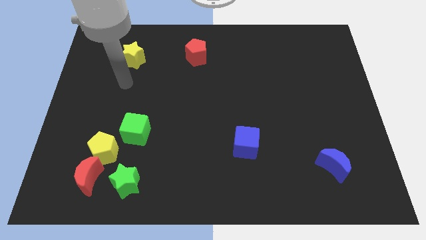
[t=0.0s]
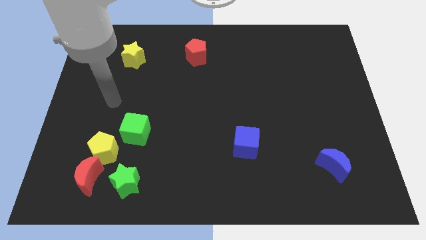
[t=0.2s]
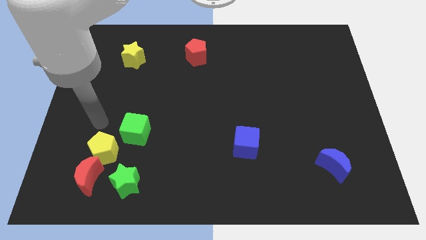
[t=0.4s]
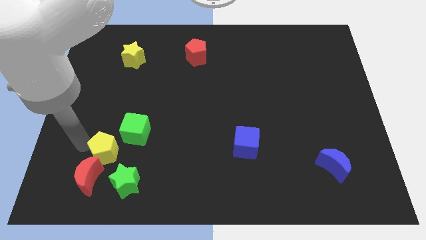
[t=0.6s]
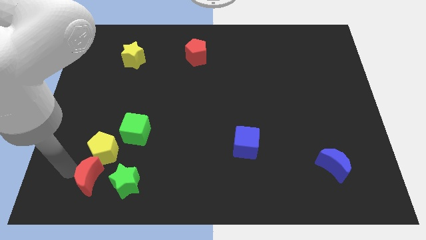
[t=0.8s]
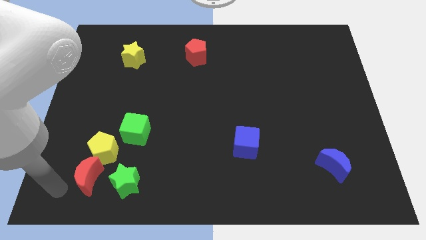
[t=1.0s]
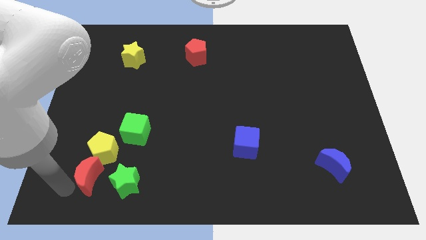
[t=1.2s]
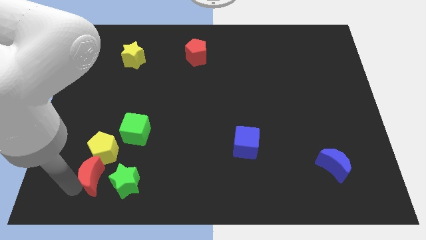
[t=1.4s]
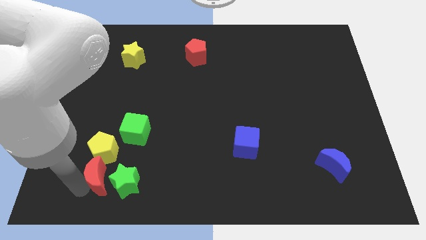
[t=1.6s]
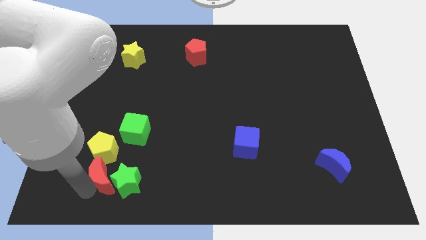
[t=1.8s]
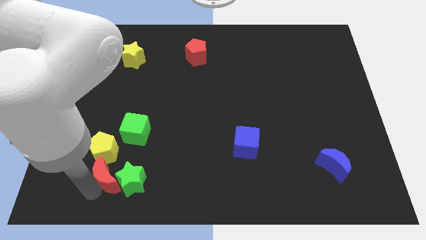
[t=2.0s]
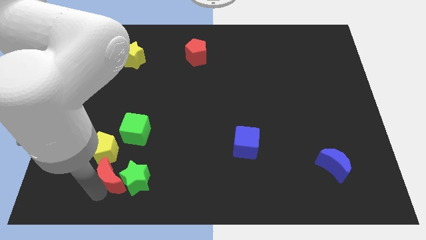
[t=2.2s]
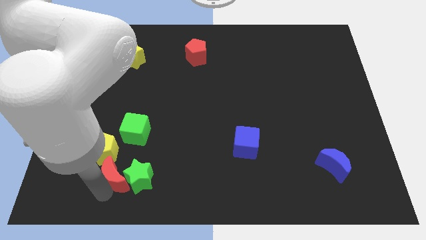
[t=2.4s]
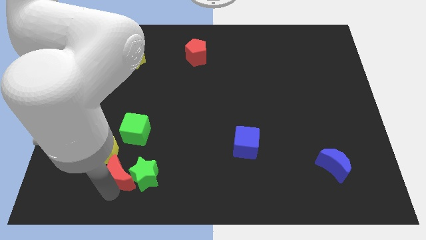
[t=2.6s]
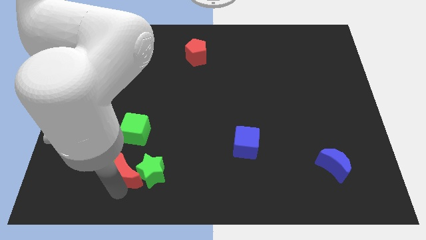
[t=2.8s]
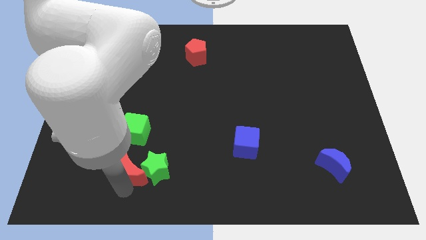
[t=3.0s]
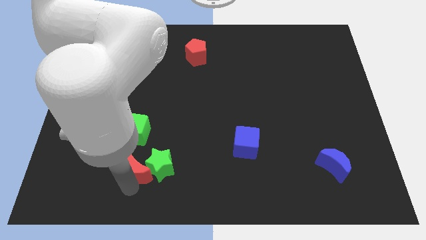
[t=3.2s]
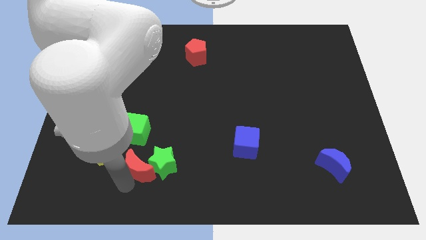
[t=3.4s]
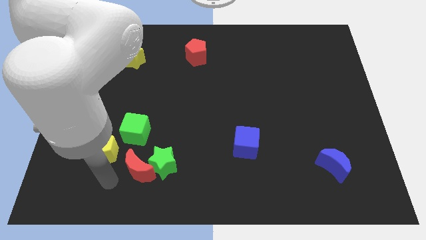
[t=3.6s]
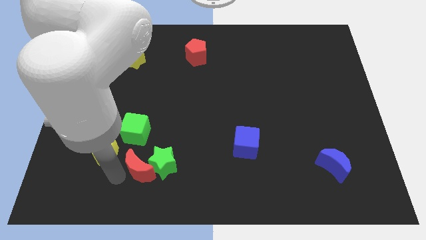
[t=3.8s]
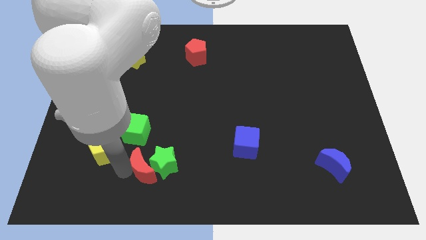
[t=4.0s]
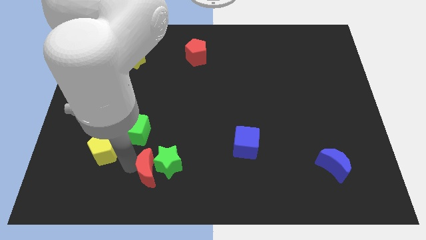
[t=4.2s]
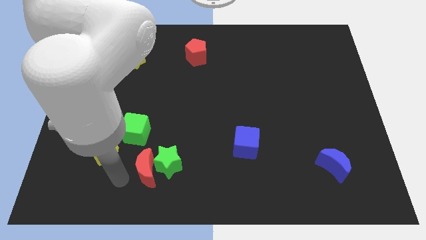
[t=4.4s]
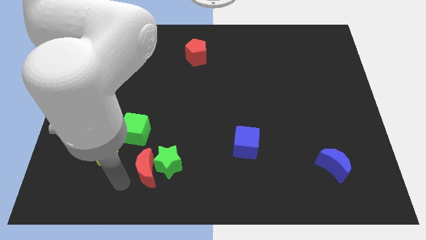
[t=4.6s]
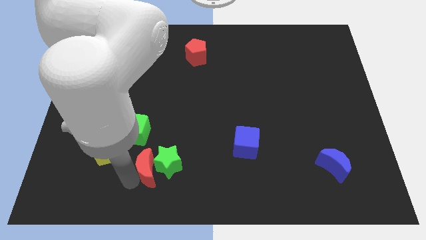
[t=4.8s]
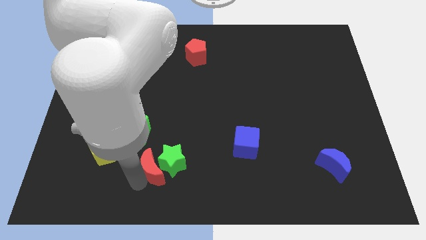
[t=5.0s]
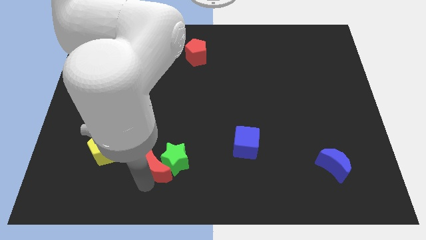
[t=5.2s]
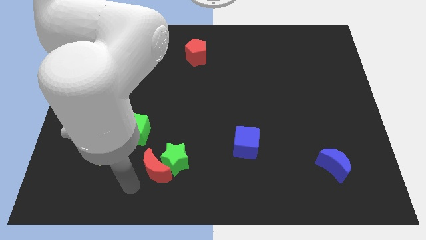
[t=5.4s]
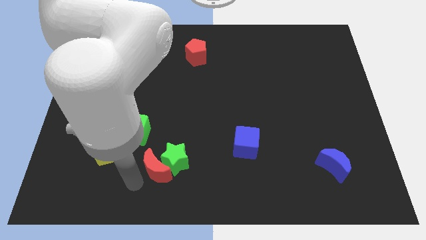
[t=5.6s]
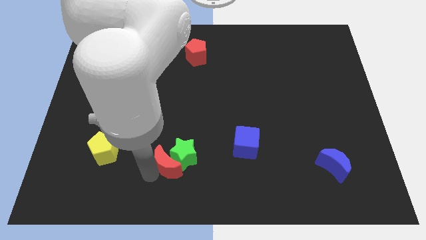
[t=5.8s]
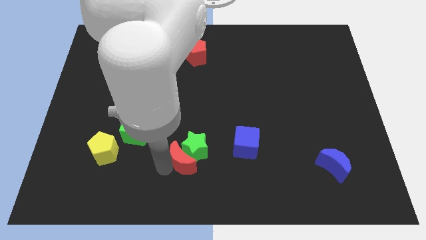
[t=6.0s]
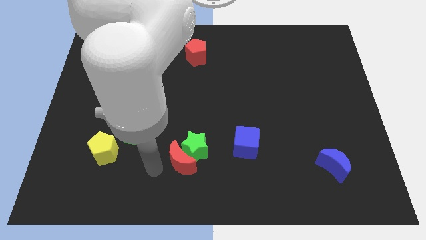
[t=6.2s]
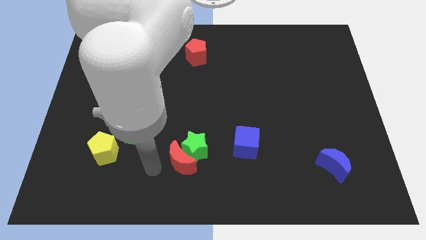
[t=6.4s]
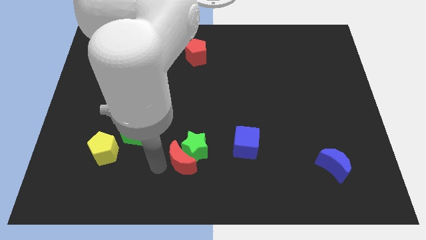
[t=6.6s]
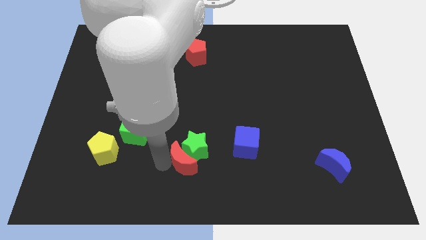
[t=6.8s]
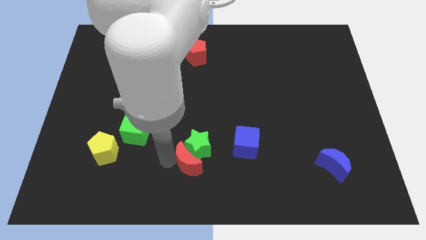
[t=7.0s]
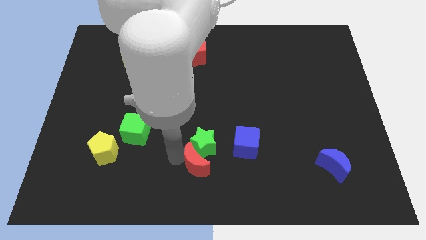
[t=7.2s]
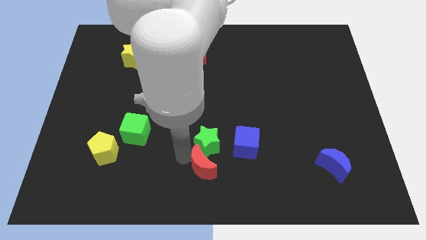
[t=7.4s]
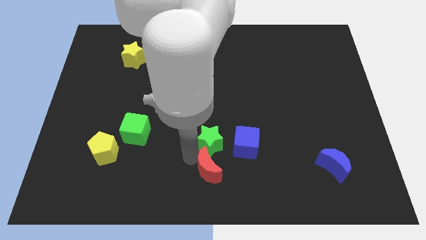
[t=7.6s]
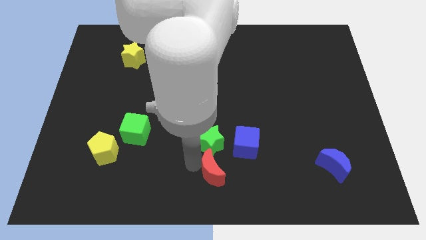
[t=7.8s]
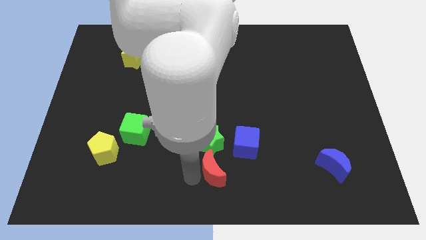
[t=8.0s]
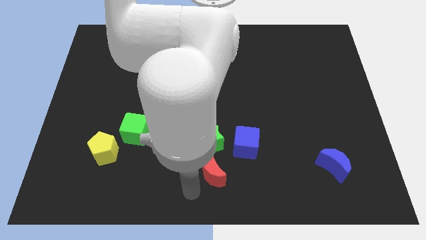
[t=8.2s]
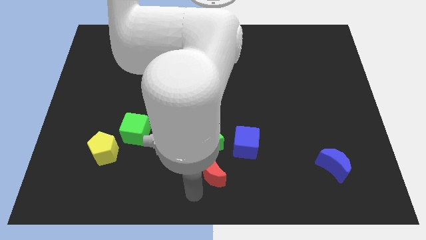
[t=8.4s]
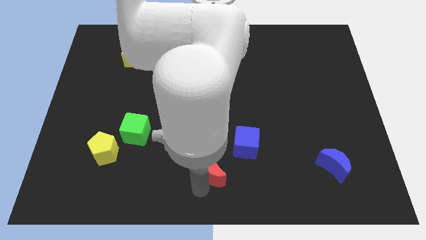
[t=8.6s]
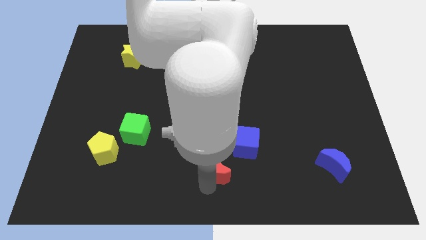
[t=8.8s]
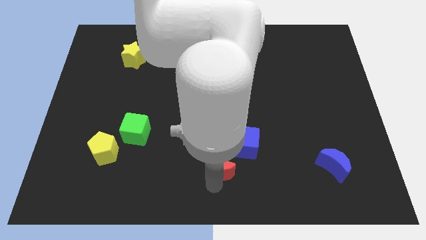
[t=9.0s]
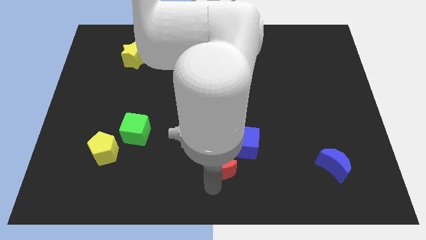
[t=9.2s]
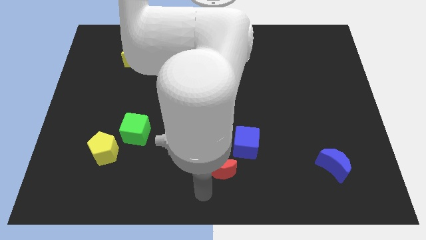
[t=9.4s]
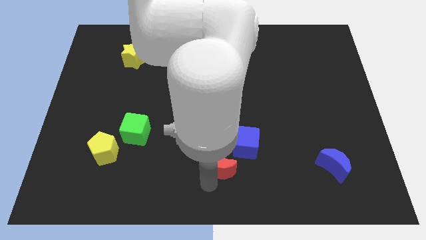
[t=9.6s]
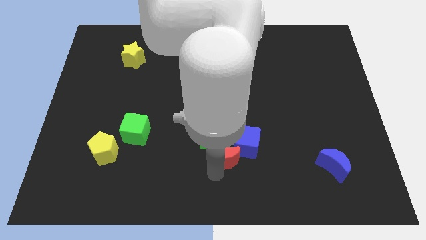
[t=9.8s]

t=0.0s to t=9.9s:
slide the red moon towards the blue cube

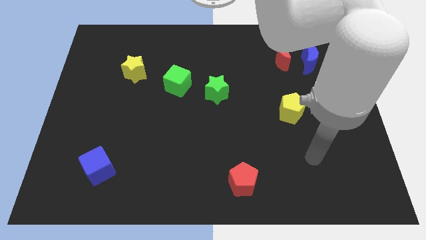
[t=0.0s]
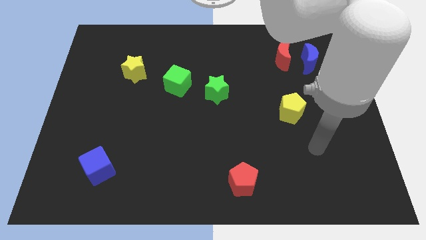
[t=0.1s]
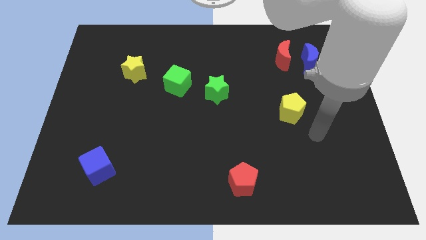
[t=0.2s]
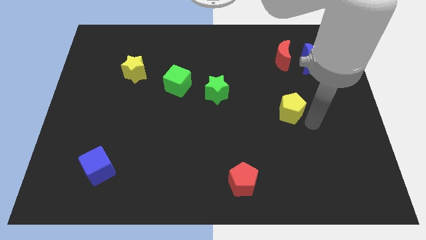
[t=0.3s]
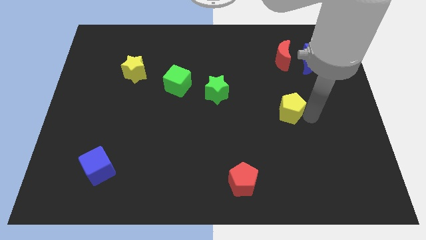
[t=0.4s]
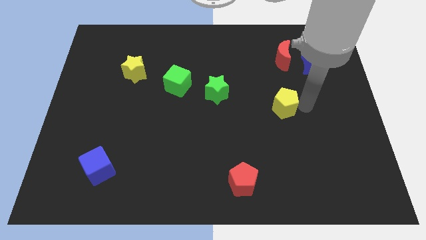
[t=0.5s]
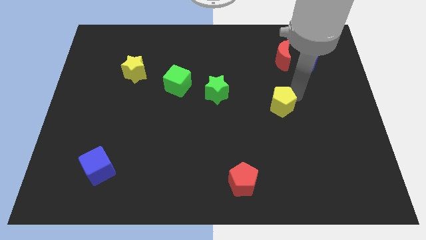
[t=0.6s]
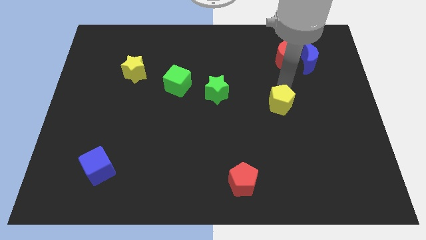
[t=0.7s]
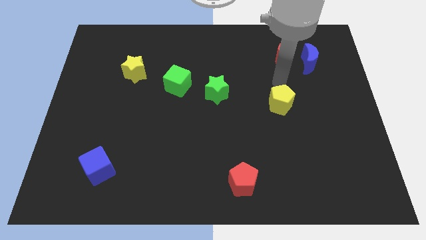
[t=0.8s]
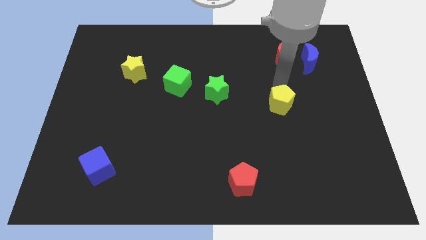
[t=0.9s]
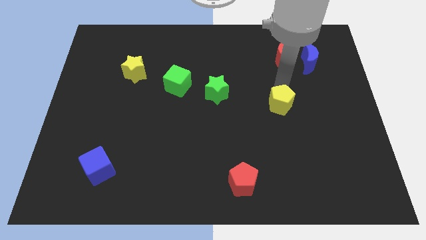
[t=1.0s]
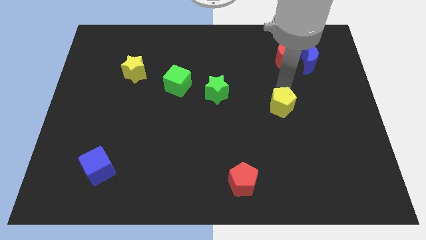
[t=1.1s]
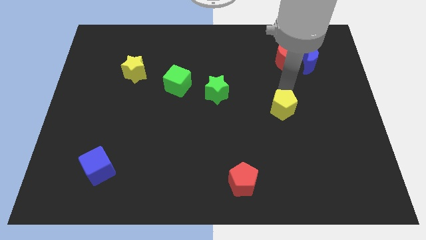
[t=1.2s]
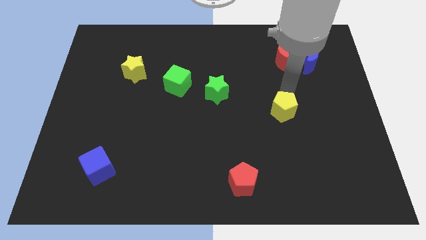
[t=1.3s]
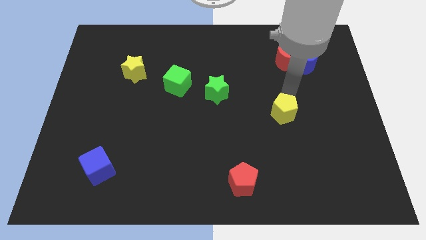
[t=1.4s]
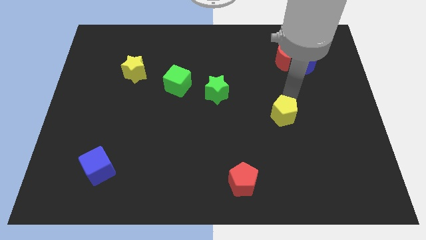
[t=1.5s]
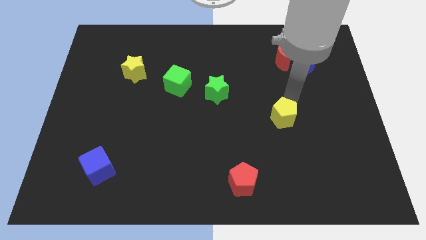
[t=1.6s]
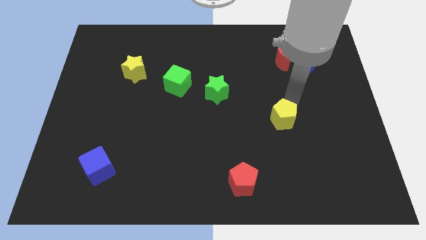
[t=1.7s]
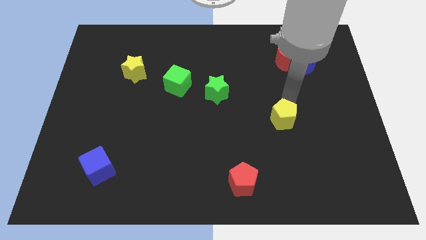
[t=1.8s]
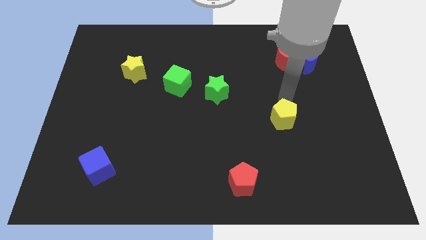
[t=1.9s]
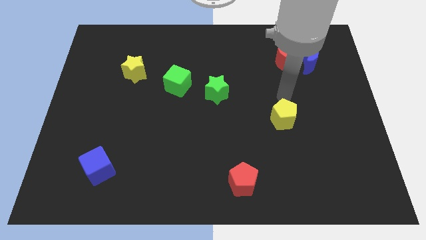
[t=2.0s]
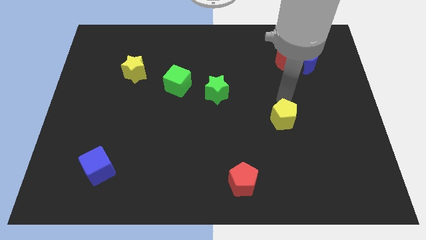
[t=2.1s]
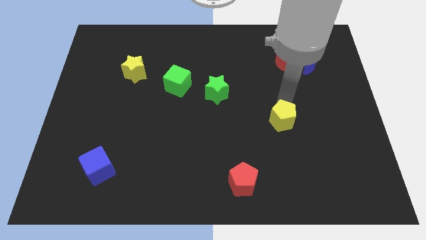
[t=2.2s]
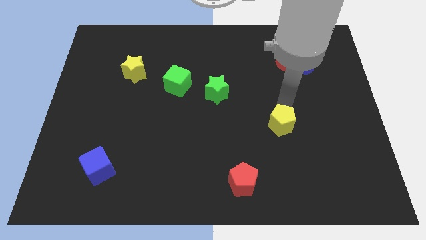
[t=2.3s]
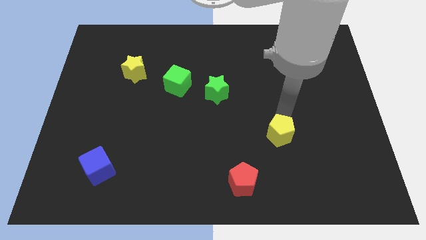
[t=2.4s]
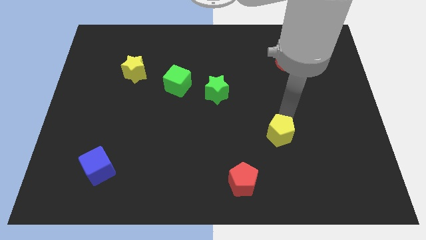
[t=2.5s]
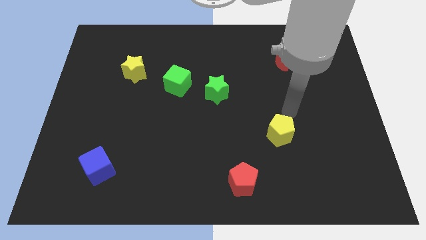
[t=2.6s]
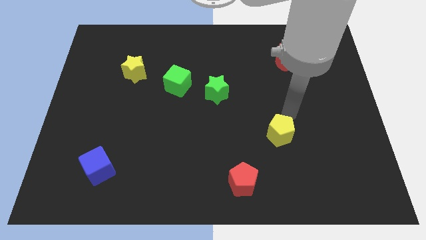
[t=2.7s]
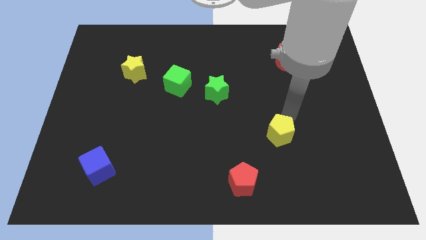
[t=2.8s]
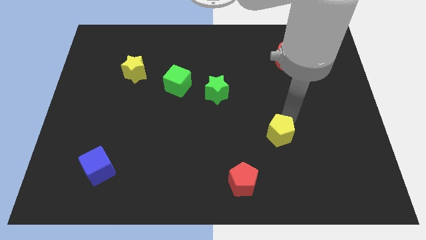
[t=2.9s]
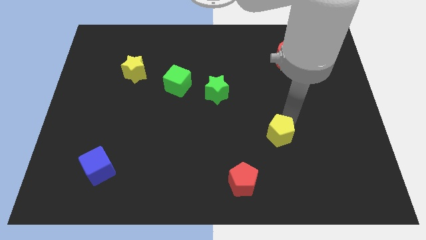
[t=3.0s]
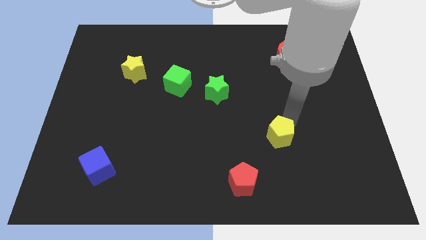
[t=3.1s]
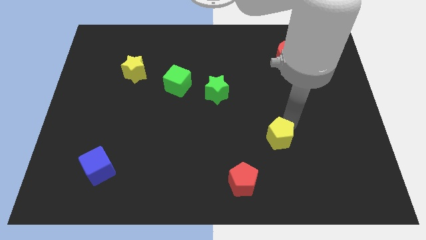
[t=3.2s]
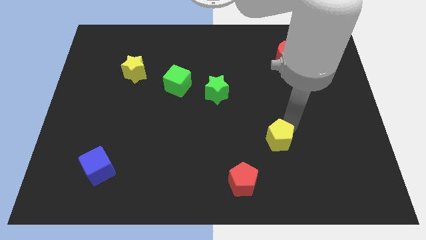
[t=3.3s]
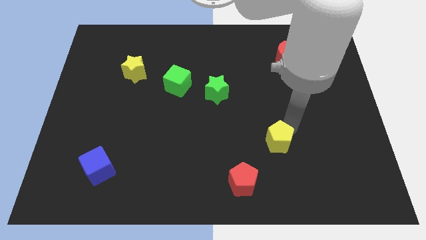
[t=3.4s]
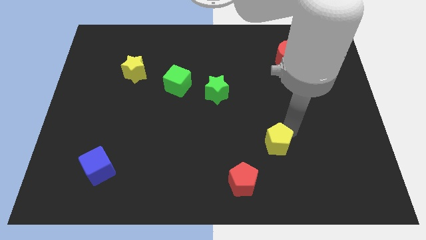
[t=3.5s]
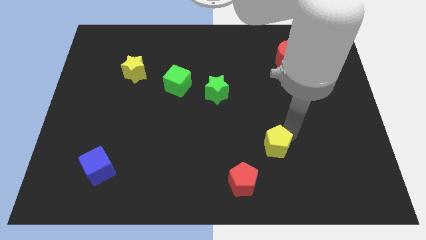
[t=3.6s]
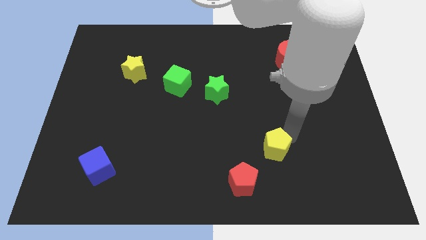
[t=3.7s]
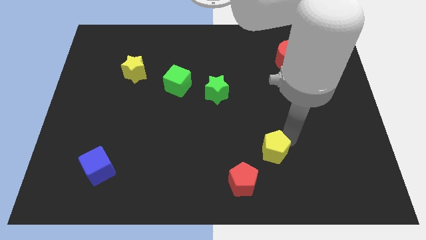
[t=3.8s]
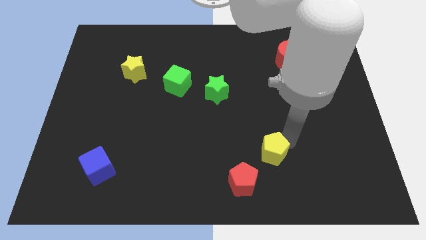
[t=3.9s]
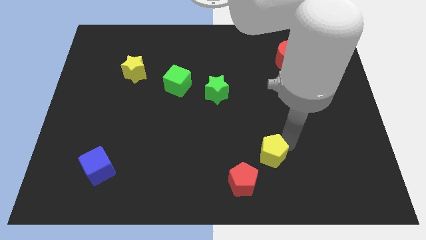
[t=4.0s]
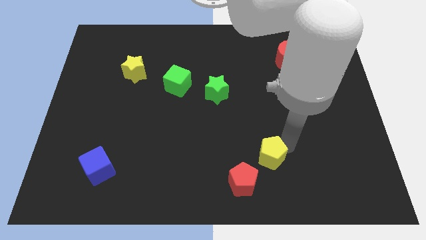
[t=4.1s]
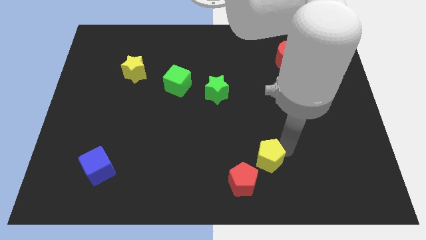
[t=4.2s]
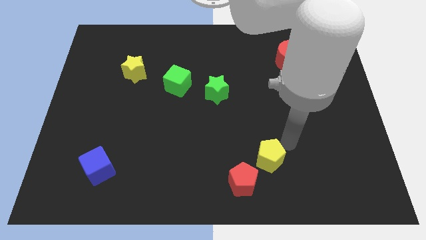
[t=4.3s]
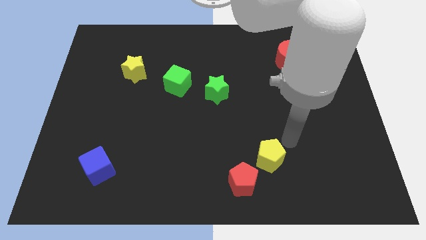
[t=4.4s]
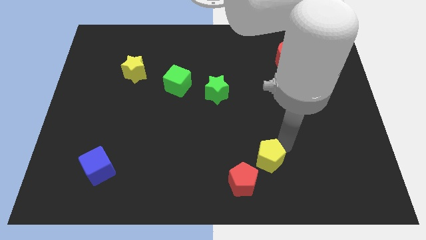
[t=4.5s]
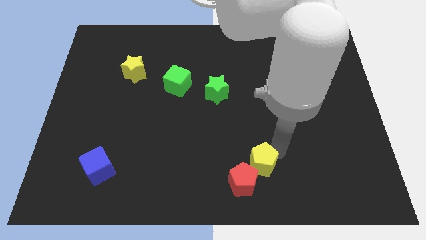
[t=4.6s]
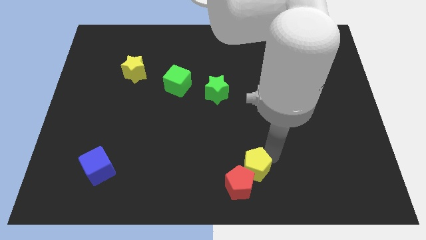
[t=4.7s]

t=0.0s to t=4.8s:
slide the yellow pentagon to the red pentagon
